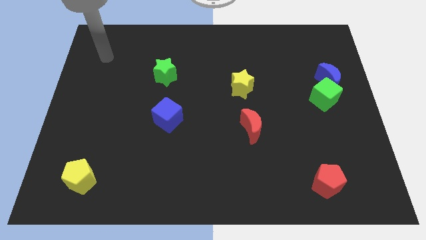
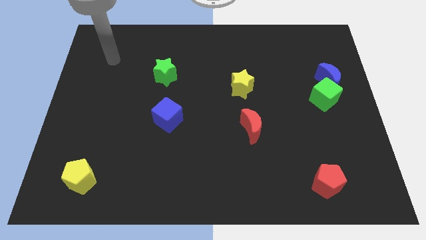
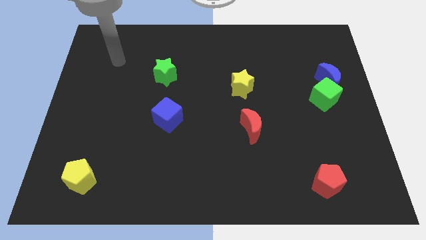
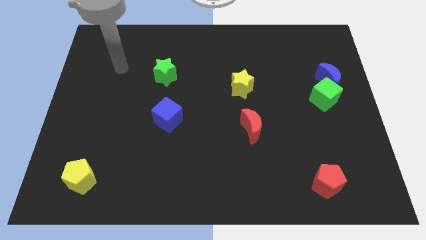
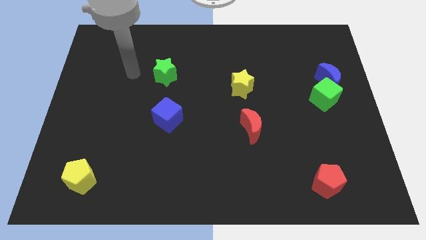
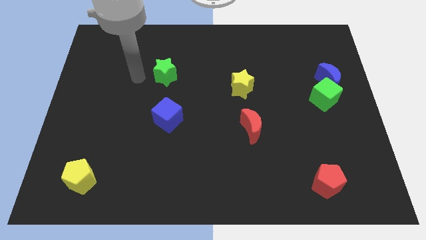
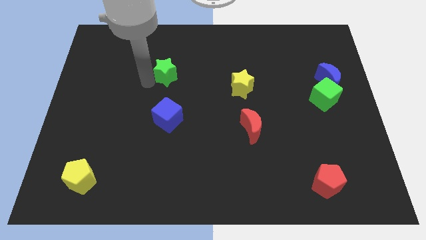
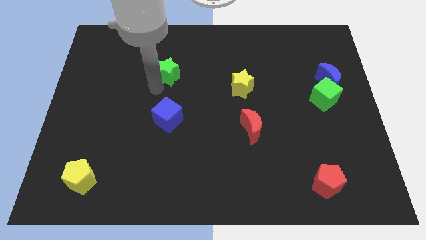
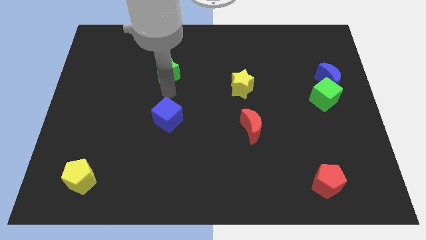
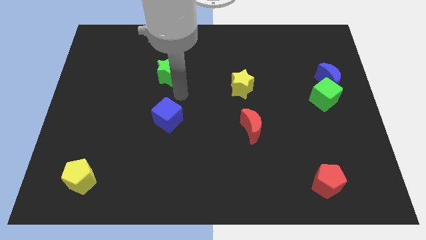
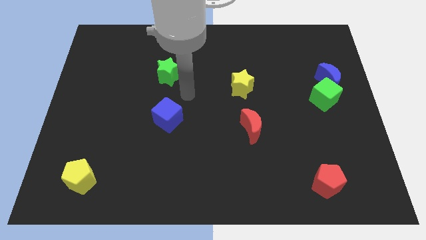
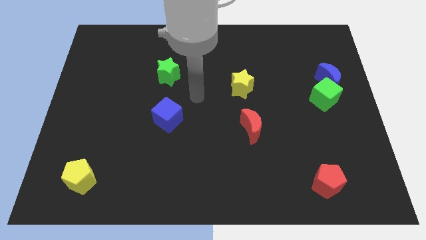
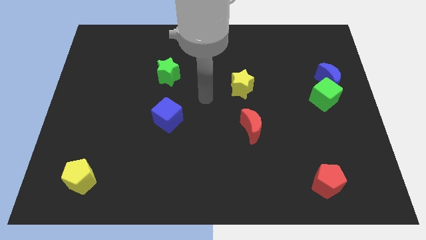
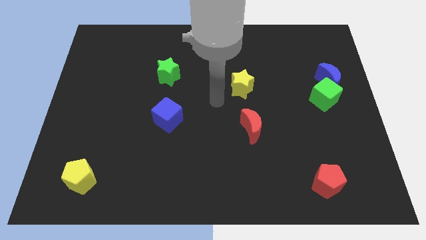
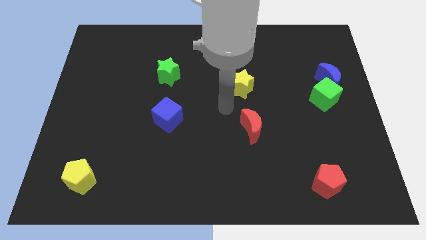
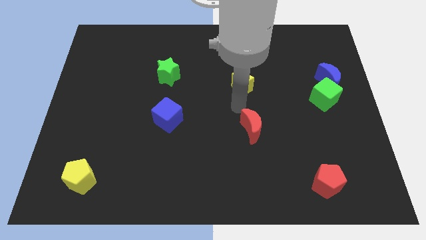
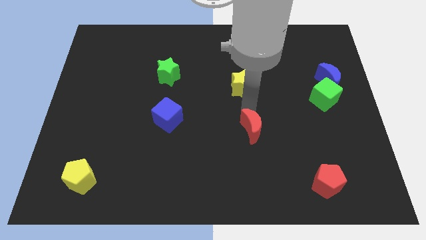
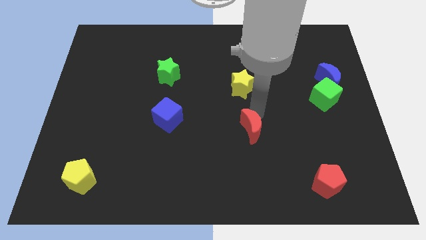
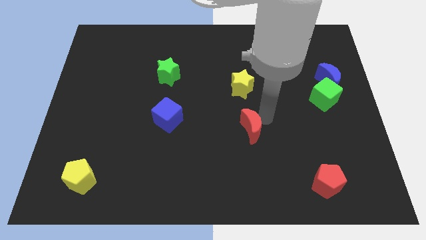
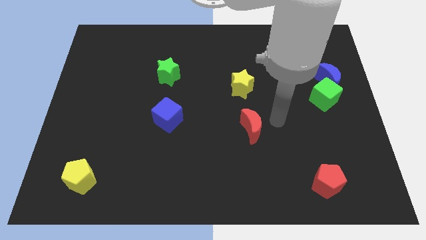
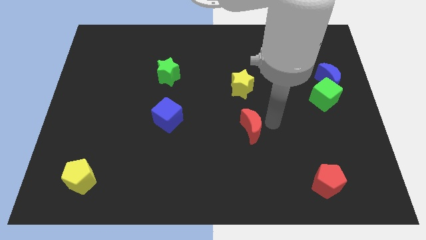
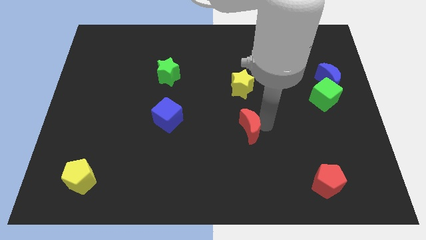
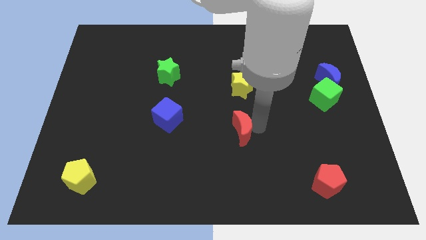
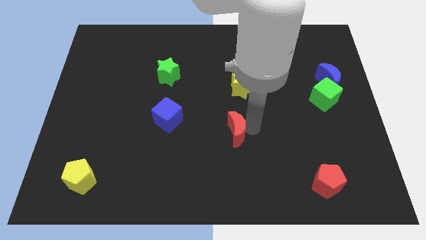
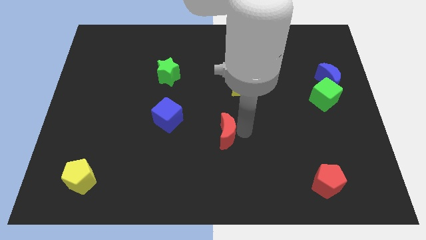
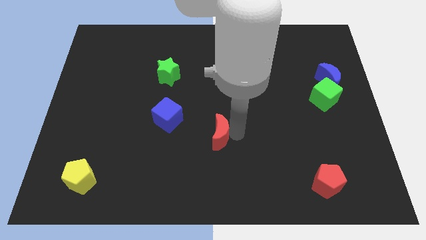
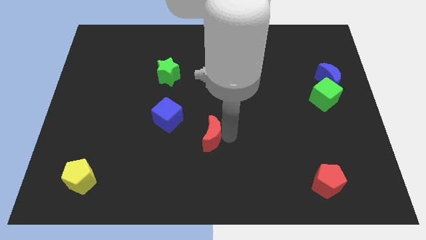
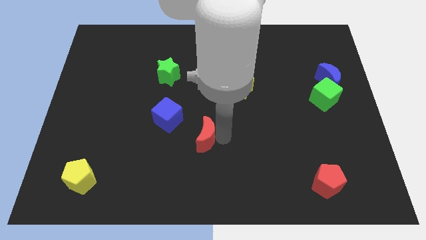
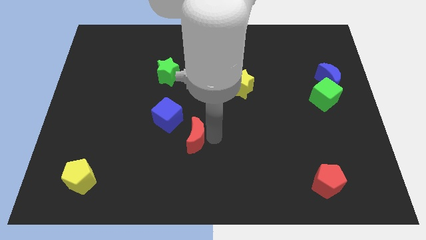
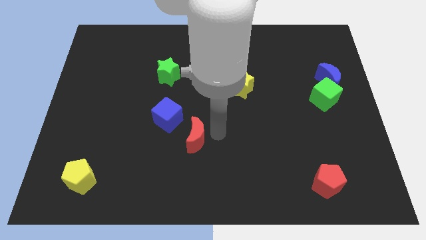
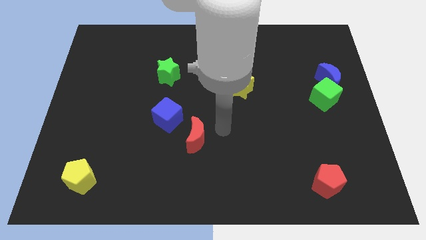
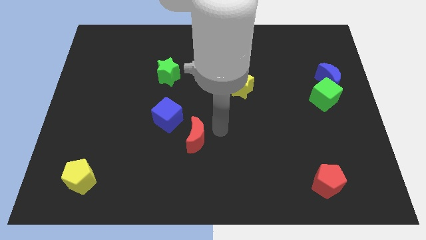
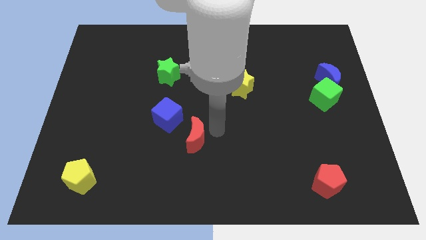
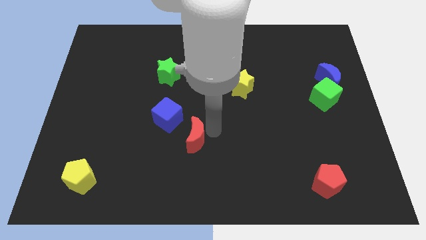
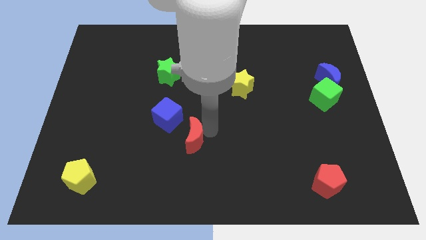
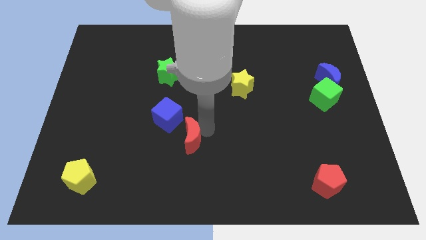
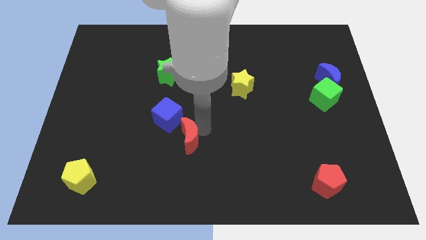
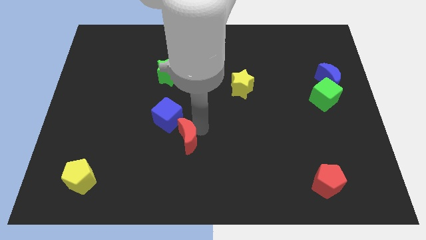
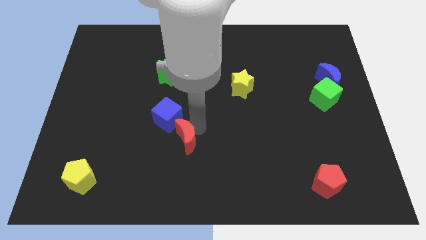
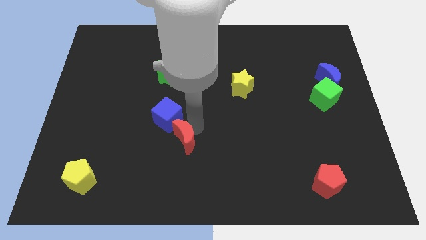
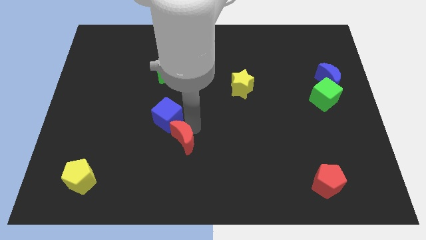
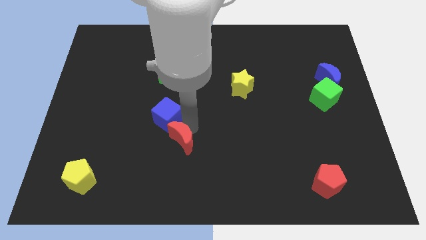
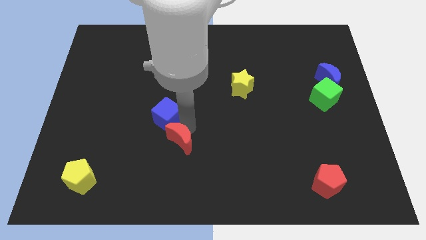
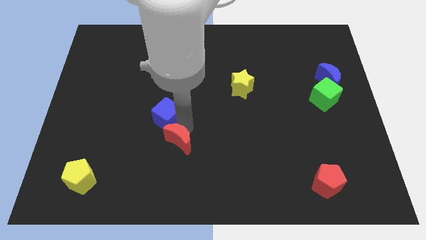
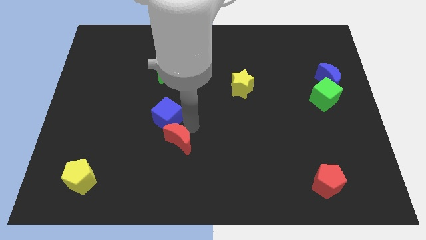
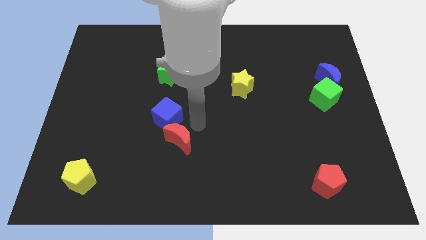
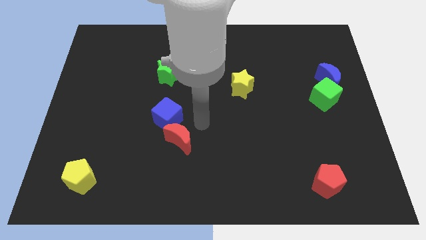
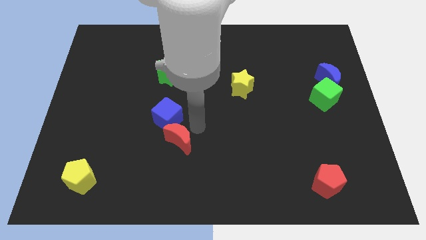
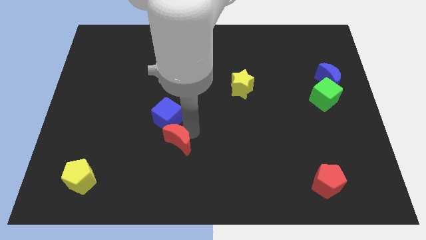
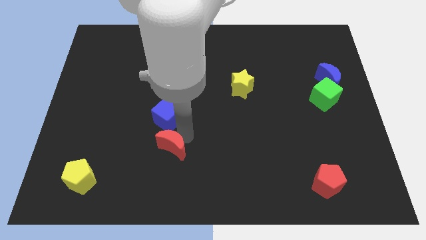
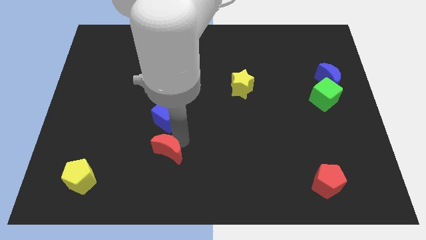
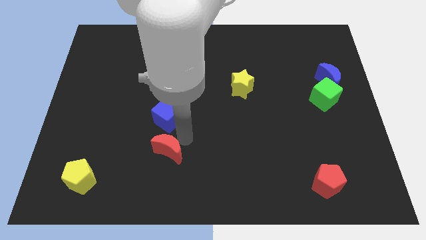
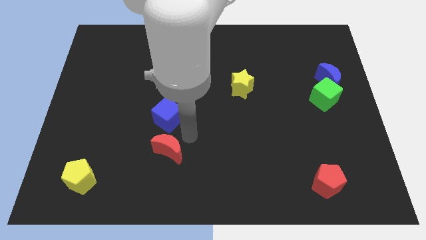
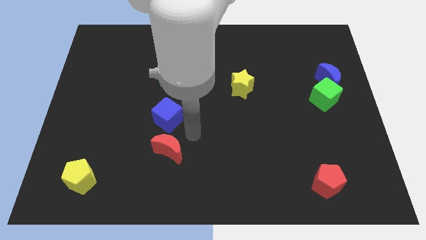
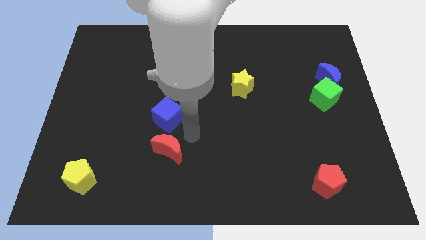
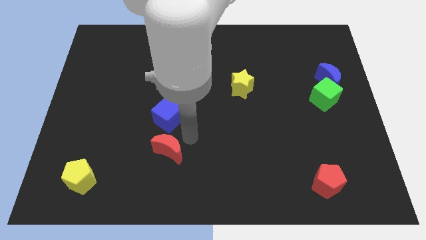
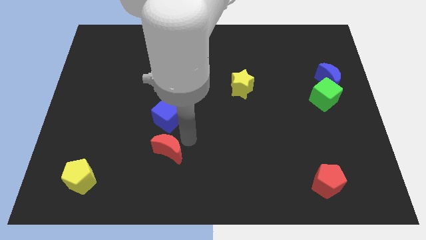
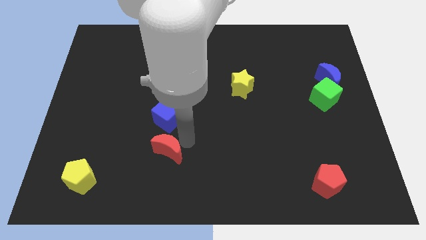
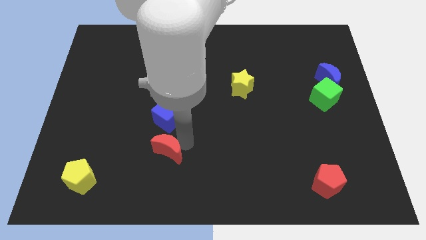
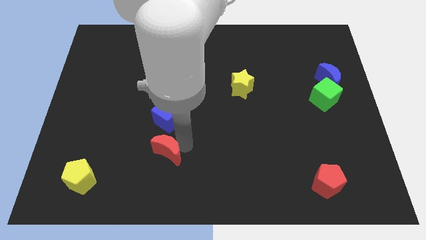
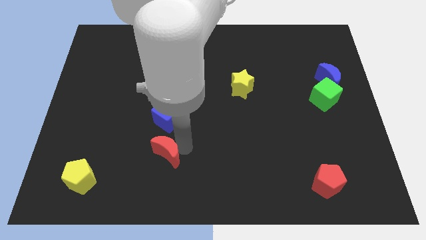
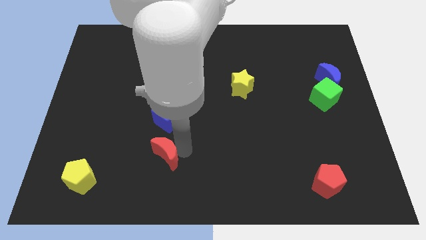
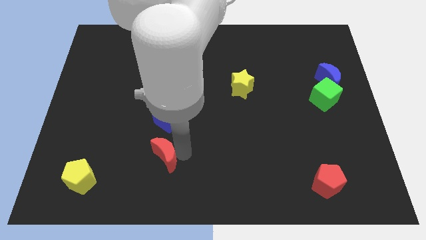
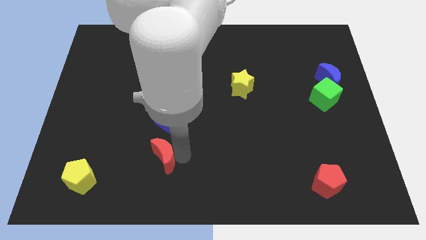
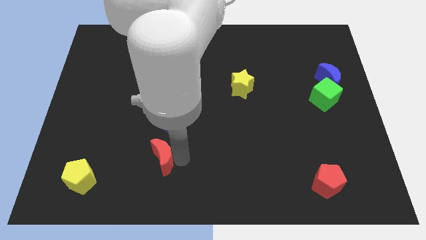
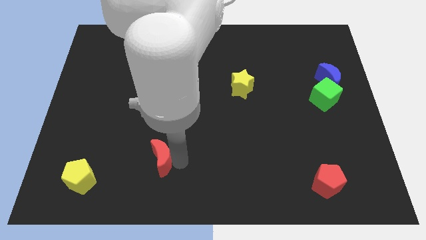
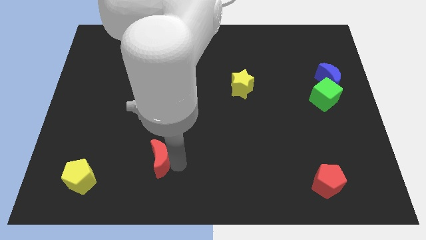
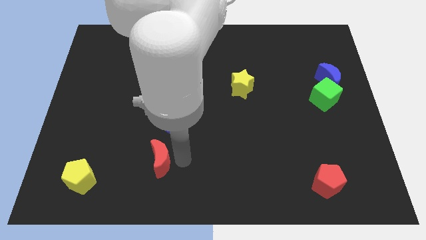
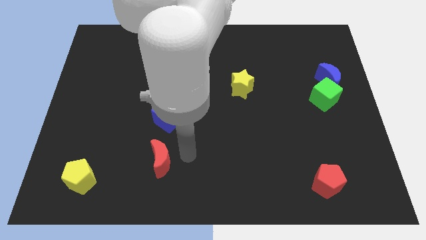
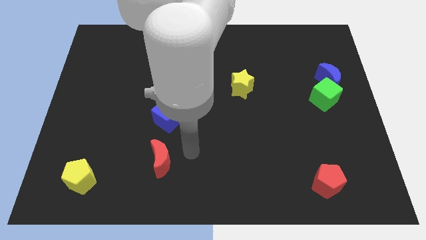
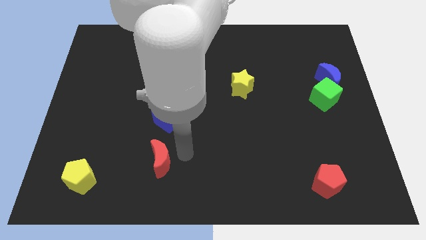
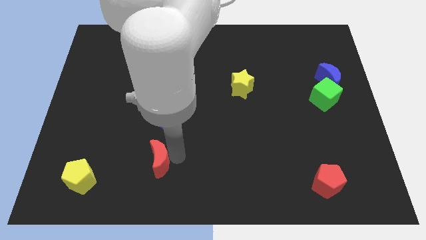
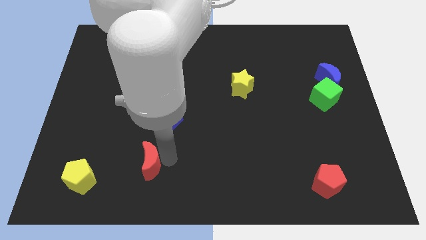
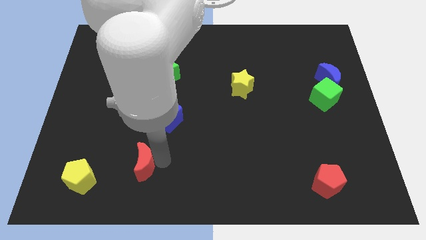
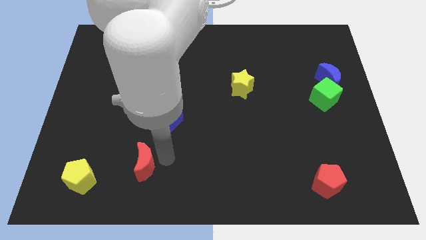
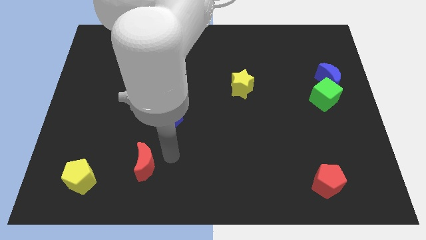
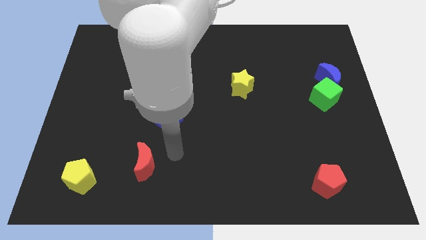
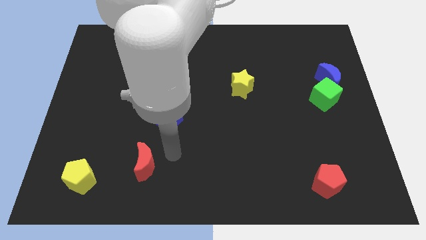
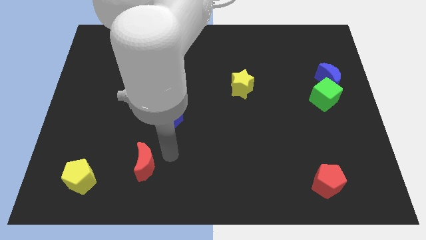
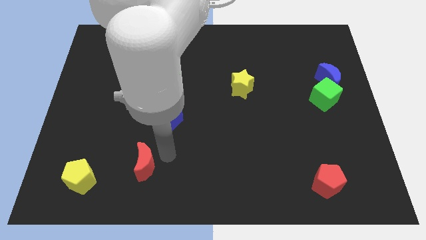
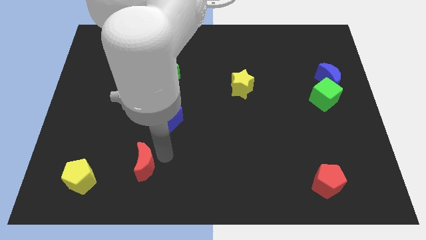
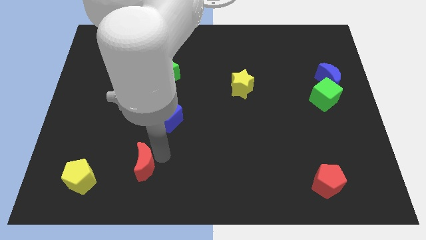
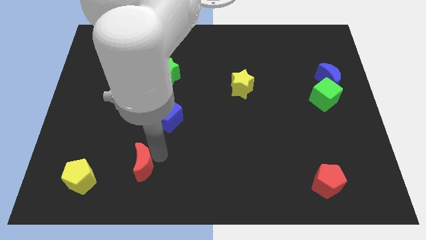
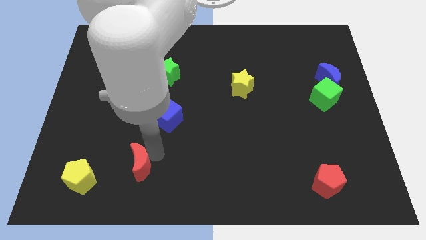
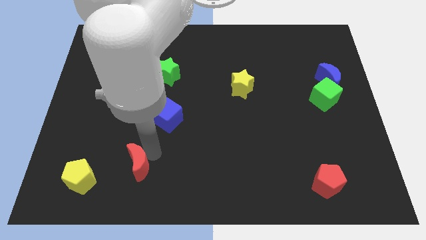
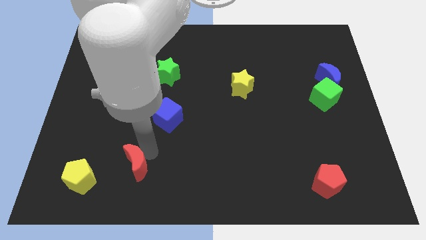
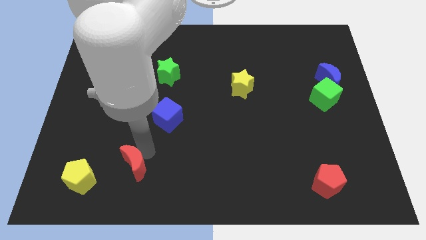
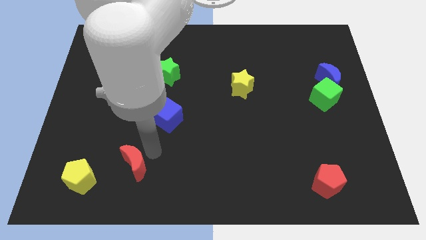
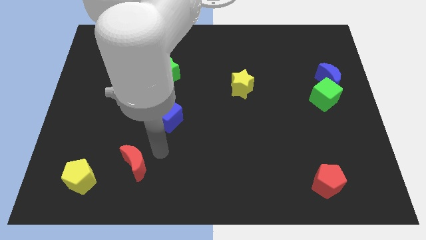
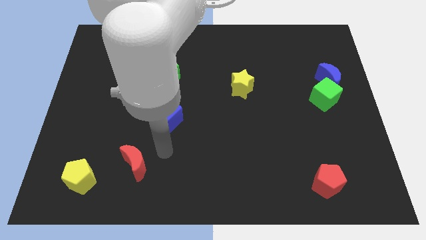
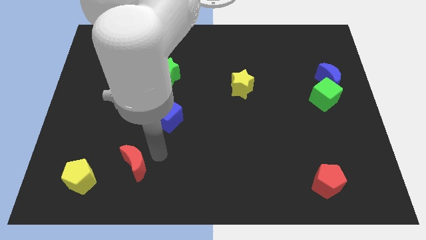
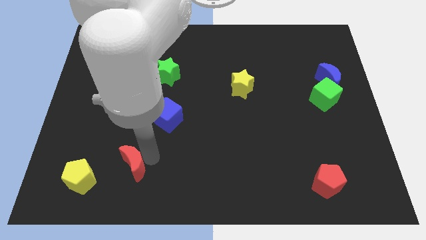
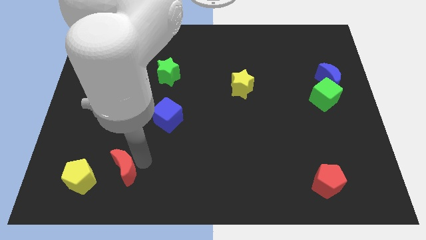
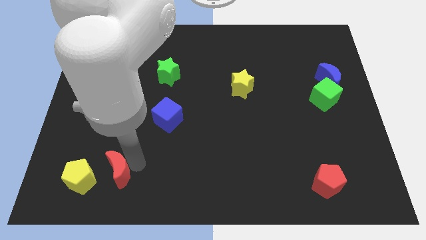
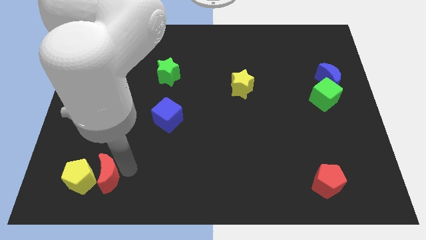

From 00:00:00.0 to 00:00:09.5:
slide the red moon towards the yellow pentagon
